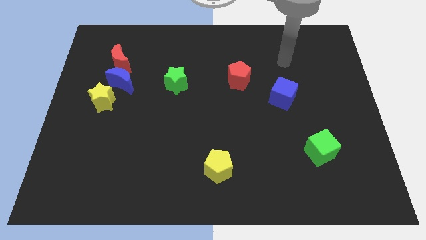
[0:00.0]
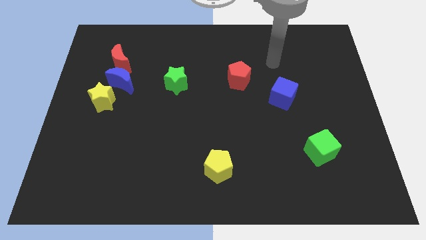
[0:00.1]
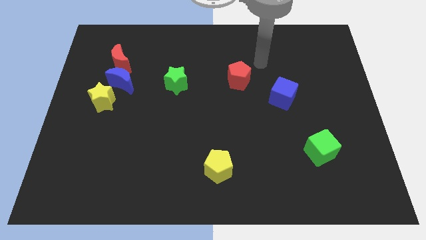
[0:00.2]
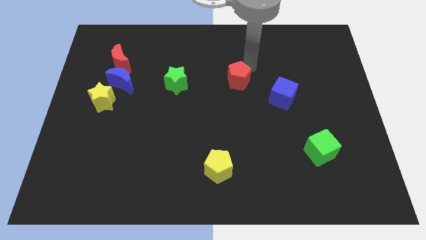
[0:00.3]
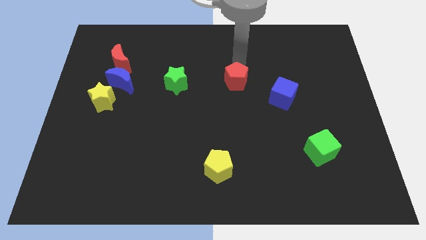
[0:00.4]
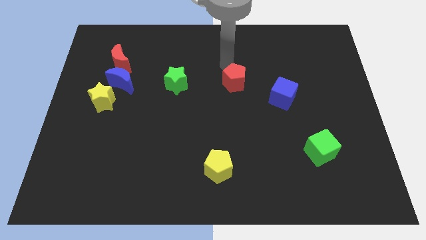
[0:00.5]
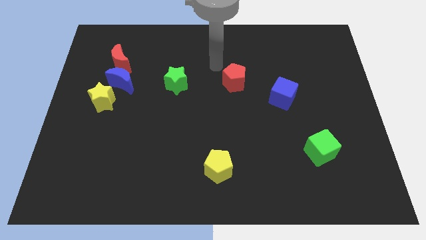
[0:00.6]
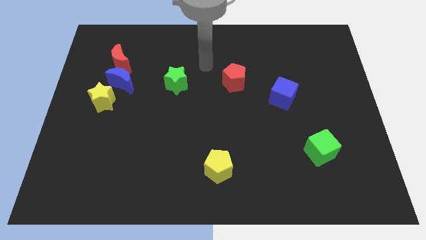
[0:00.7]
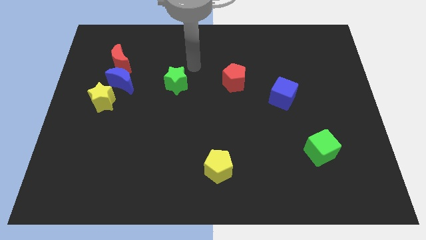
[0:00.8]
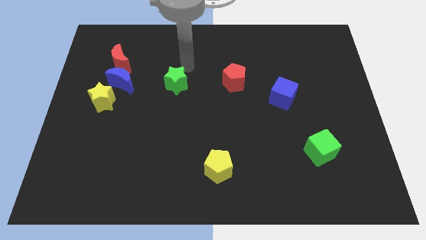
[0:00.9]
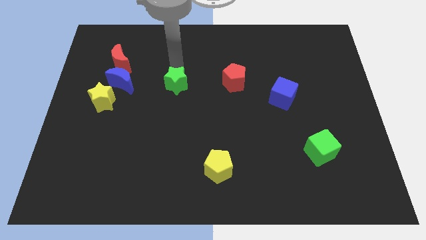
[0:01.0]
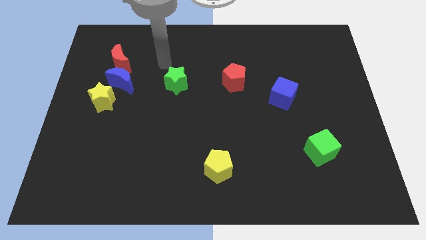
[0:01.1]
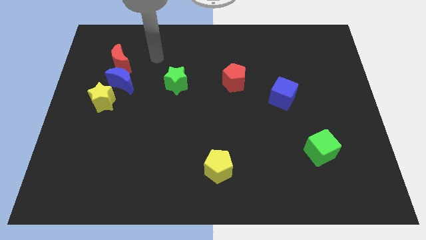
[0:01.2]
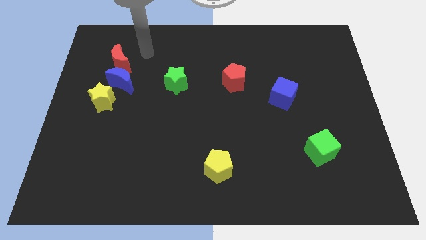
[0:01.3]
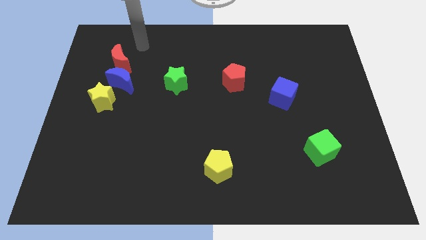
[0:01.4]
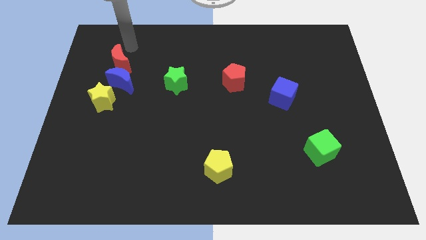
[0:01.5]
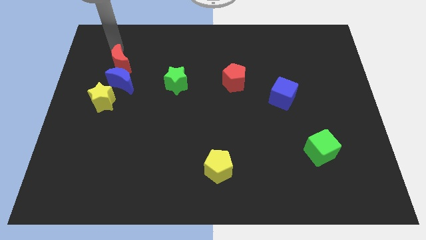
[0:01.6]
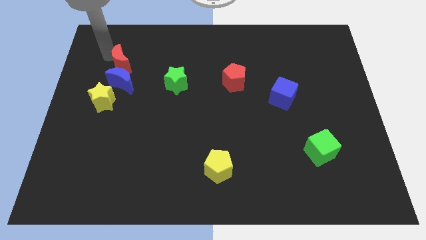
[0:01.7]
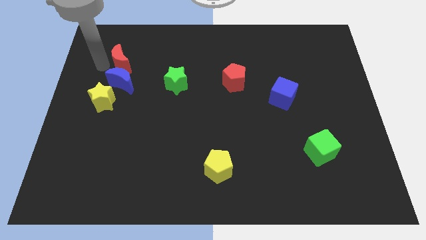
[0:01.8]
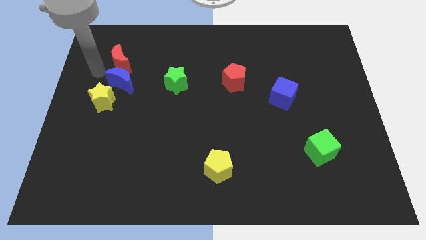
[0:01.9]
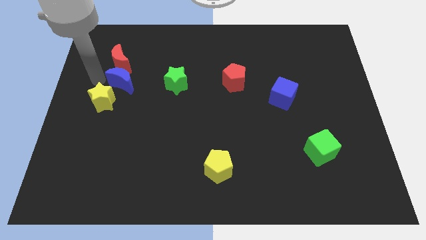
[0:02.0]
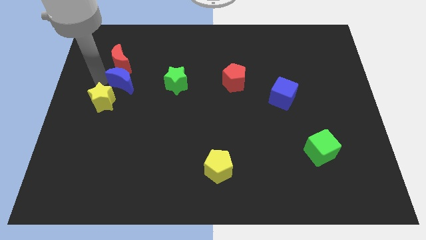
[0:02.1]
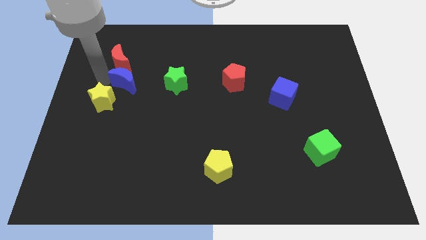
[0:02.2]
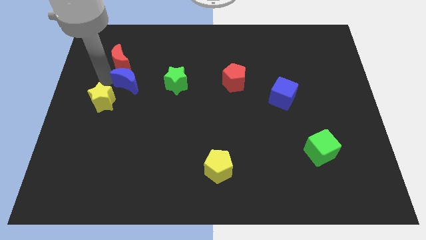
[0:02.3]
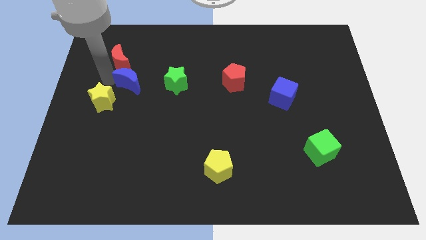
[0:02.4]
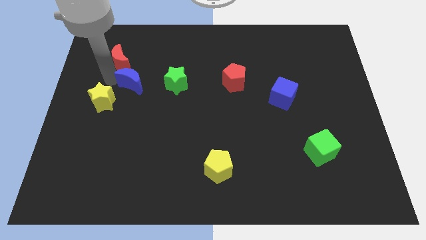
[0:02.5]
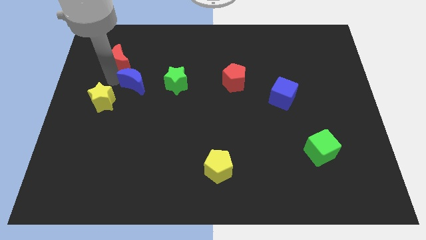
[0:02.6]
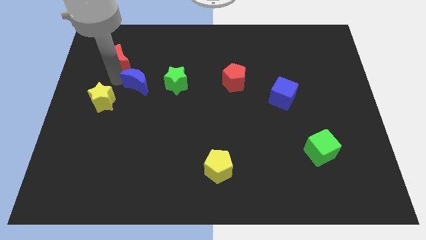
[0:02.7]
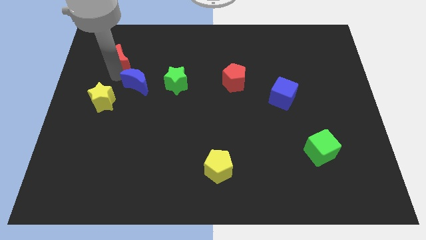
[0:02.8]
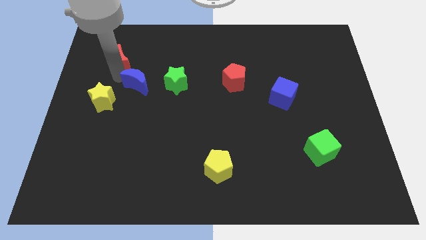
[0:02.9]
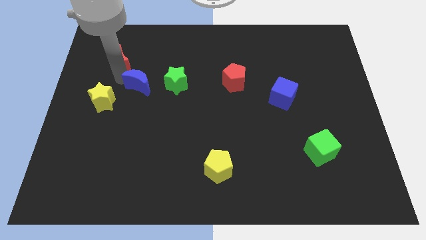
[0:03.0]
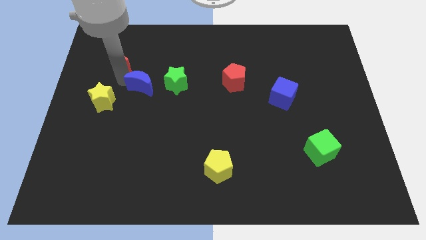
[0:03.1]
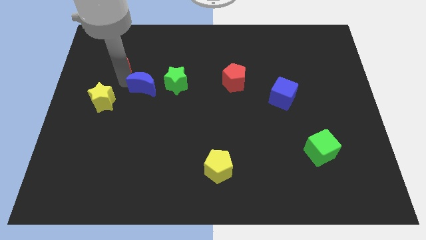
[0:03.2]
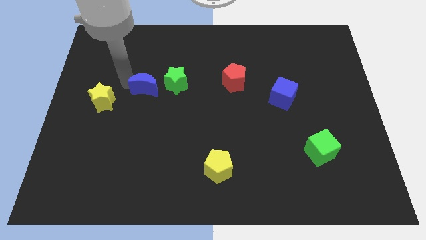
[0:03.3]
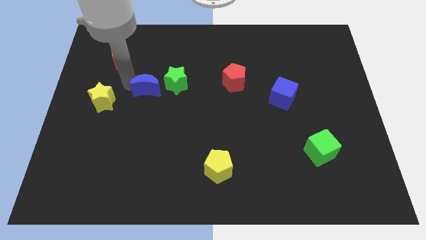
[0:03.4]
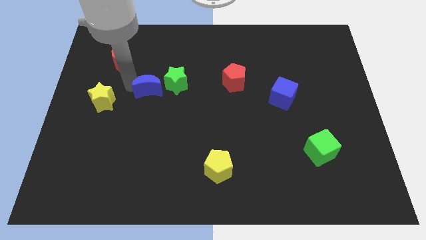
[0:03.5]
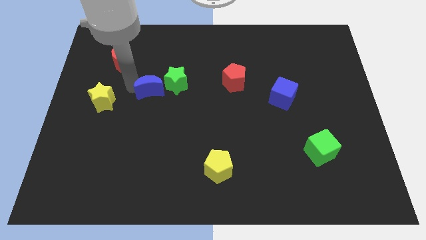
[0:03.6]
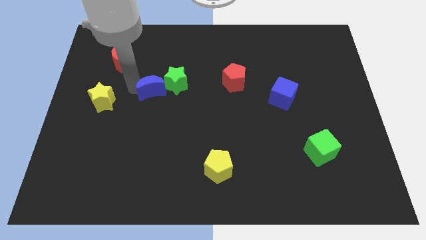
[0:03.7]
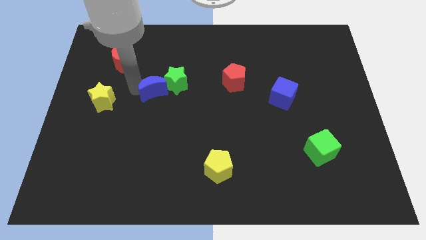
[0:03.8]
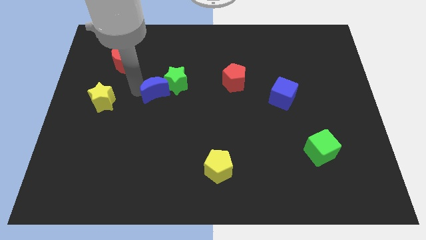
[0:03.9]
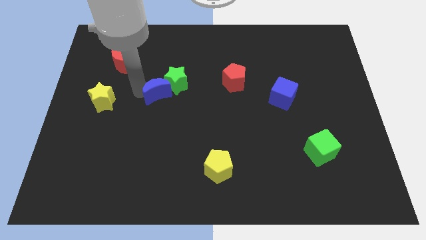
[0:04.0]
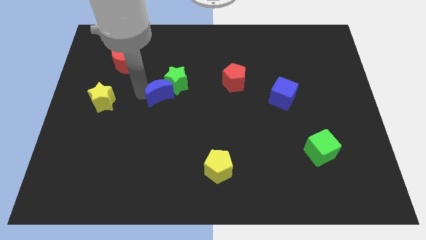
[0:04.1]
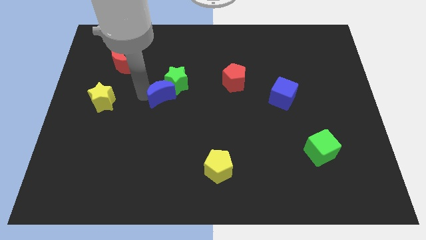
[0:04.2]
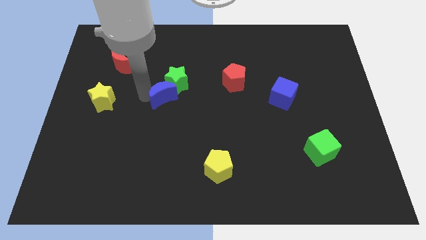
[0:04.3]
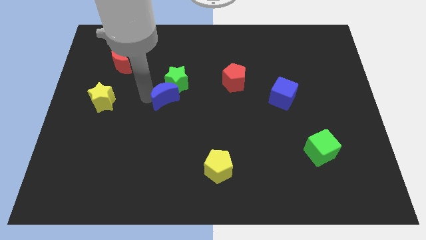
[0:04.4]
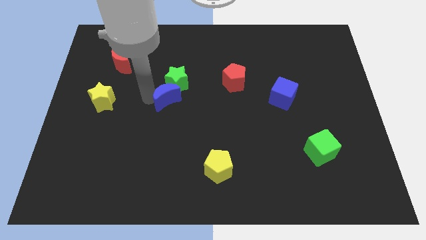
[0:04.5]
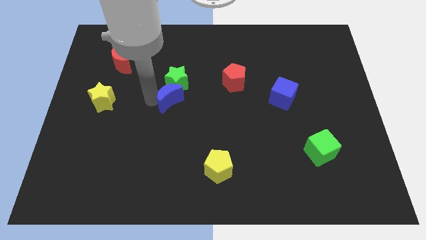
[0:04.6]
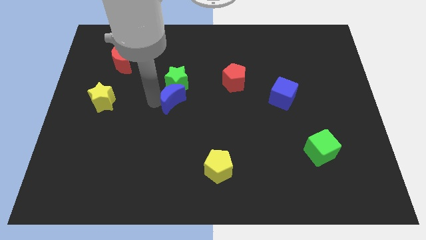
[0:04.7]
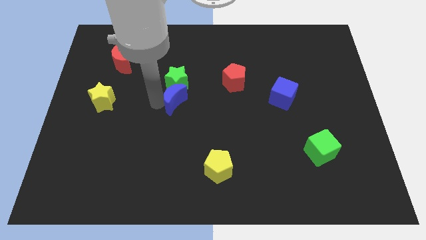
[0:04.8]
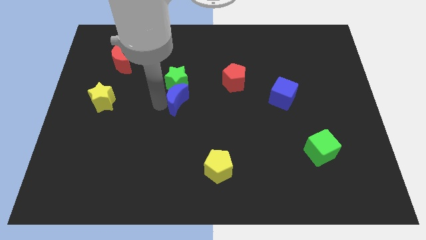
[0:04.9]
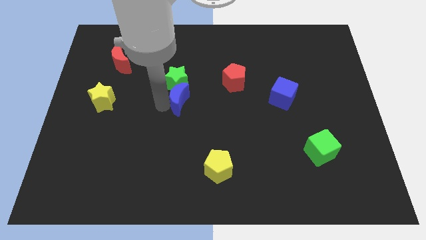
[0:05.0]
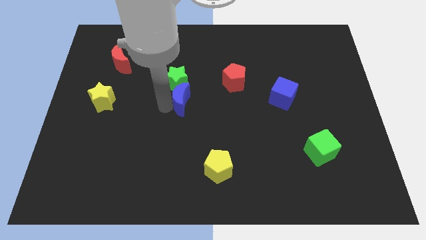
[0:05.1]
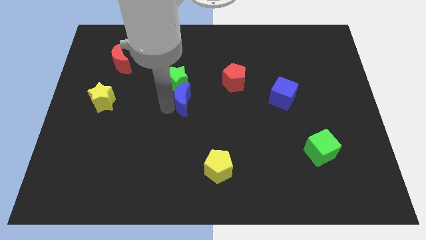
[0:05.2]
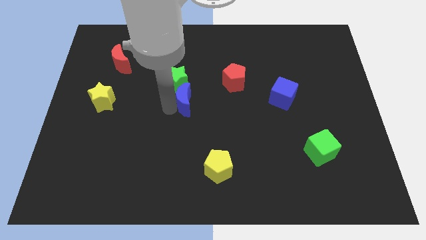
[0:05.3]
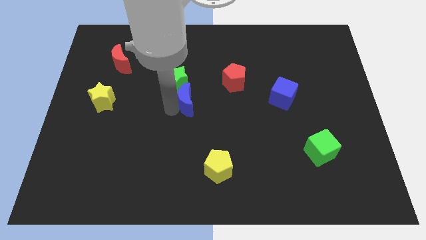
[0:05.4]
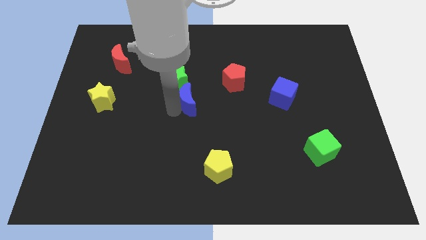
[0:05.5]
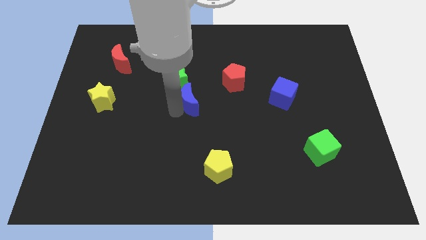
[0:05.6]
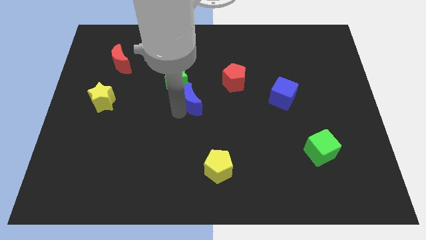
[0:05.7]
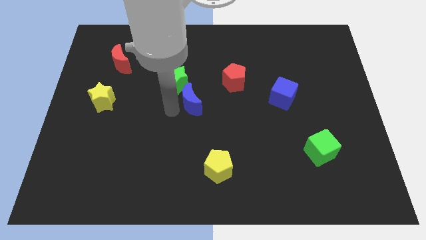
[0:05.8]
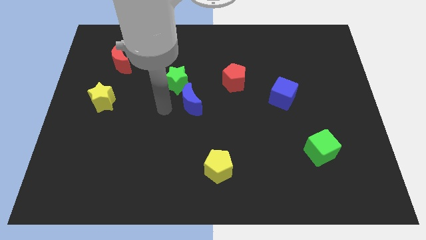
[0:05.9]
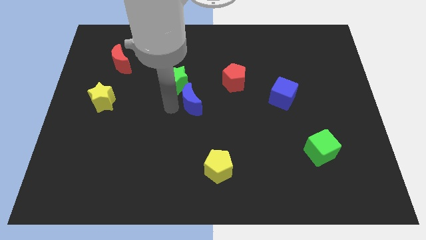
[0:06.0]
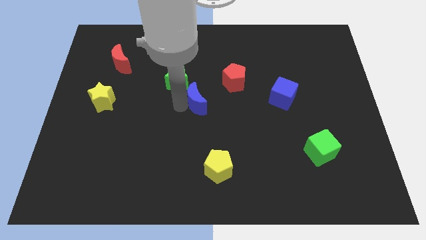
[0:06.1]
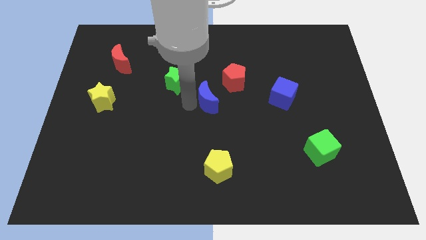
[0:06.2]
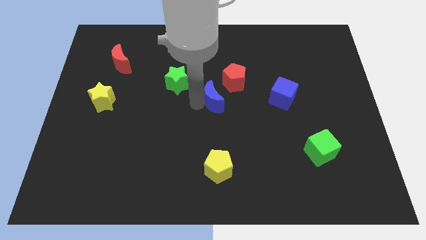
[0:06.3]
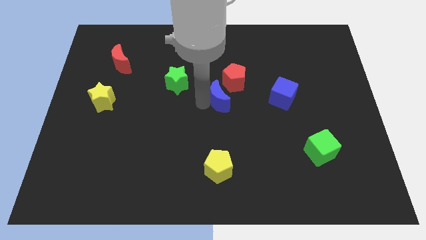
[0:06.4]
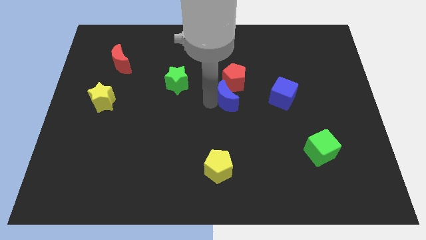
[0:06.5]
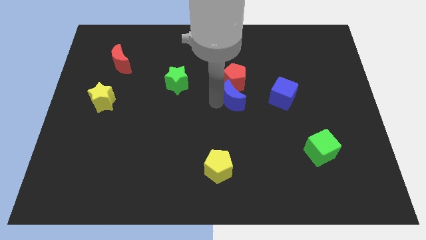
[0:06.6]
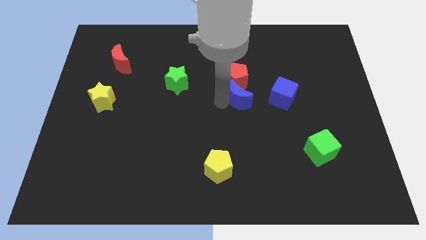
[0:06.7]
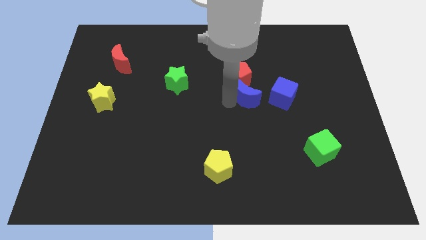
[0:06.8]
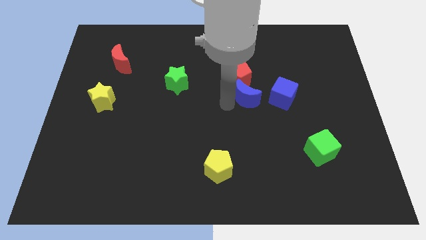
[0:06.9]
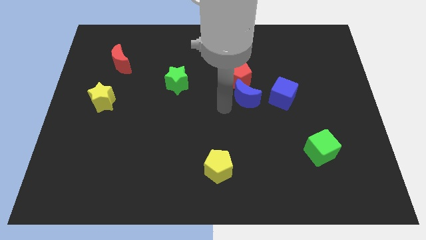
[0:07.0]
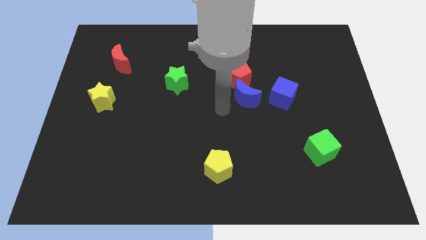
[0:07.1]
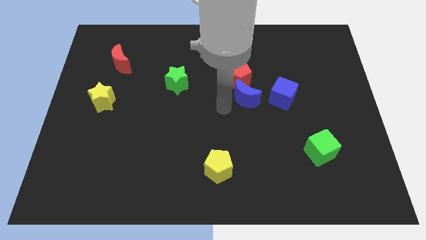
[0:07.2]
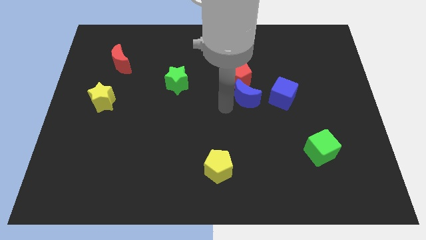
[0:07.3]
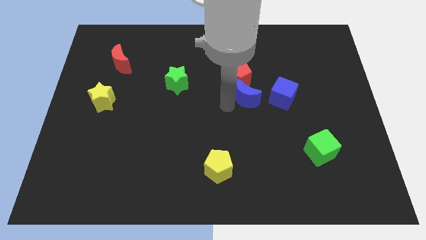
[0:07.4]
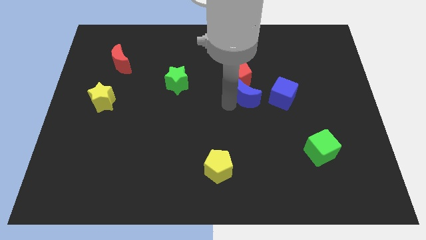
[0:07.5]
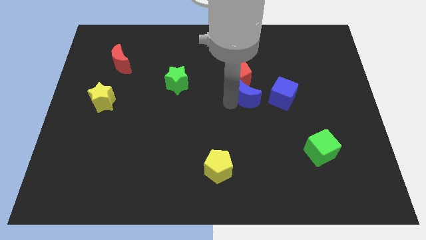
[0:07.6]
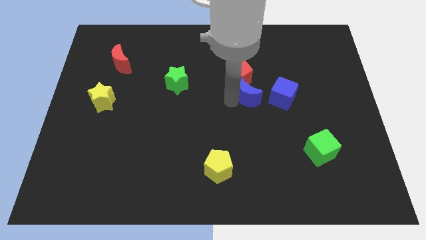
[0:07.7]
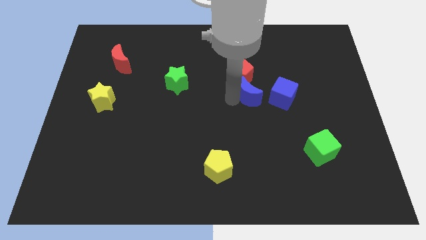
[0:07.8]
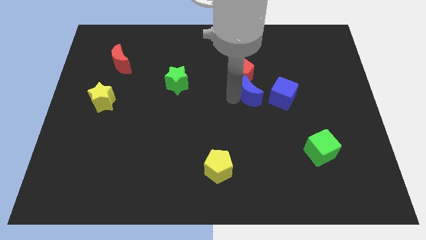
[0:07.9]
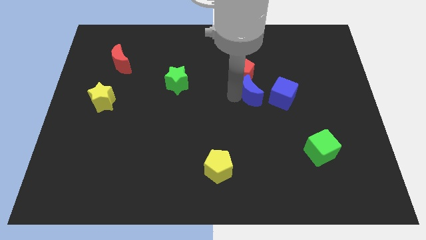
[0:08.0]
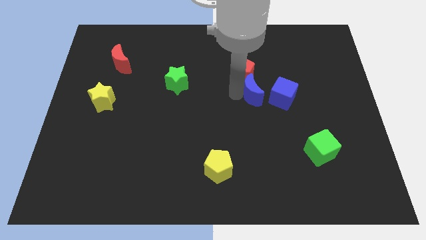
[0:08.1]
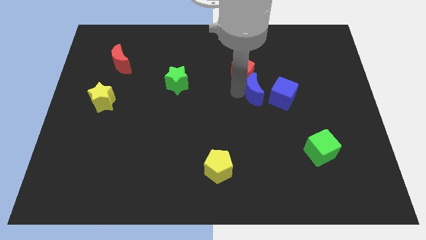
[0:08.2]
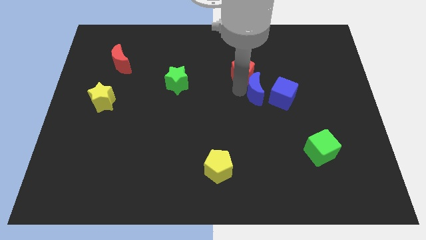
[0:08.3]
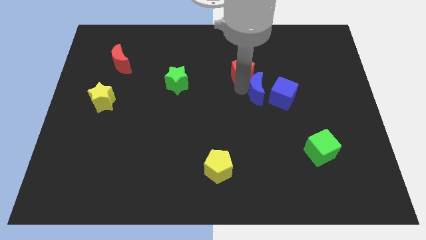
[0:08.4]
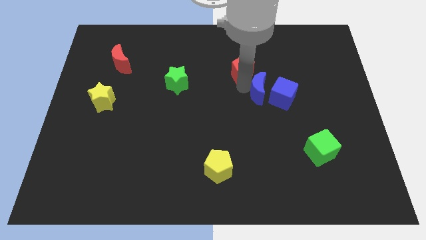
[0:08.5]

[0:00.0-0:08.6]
put the blue moon towards the blue cube
